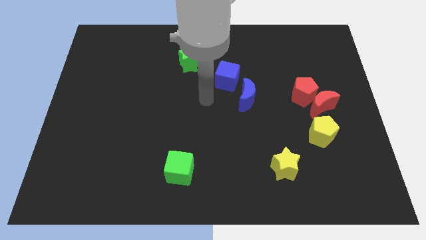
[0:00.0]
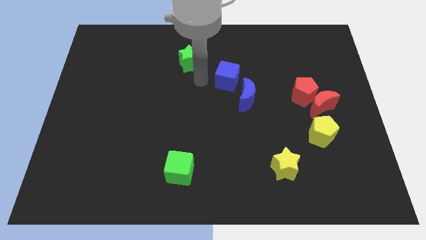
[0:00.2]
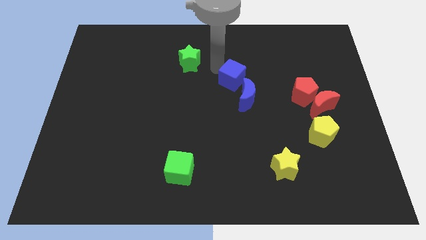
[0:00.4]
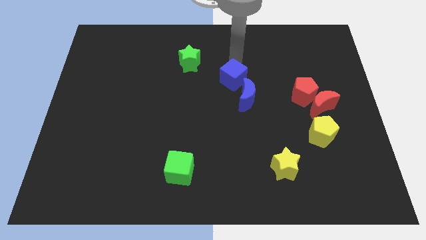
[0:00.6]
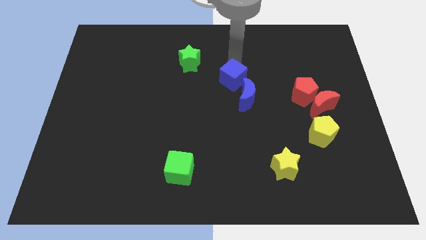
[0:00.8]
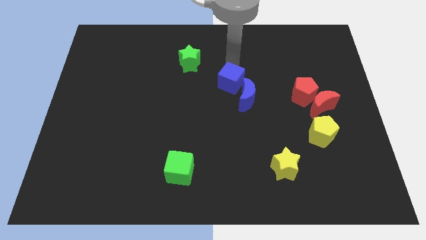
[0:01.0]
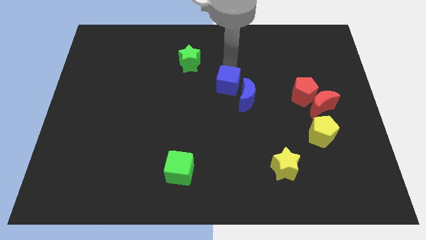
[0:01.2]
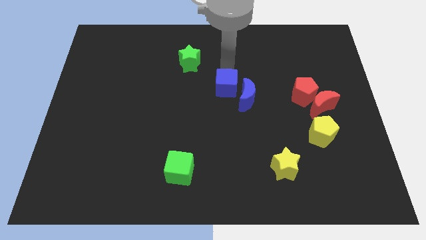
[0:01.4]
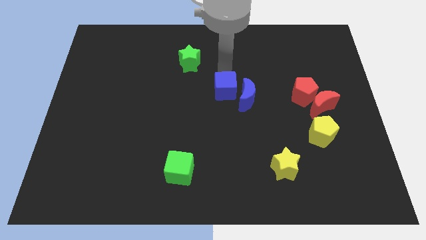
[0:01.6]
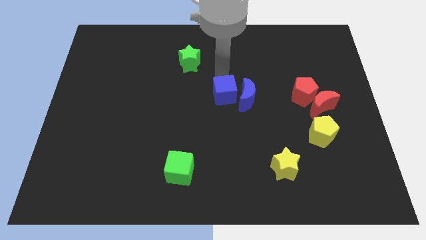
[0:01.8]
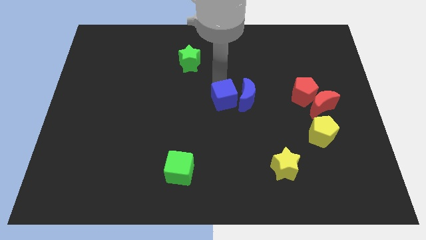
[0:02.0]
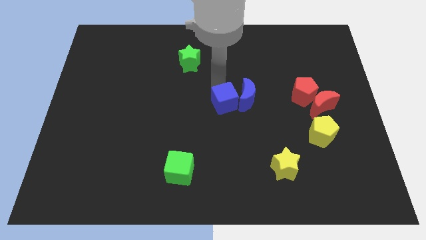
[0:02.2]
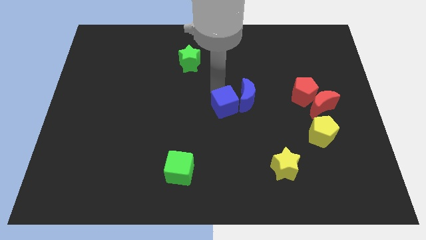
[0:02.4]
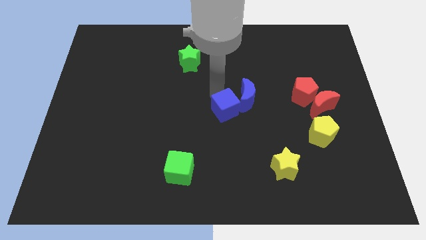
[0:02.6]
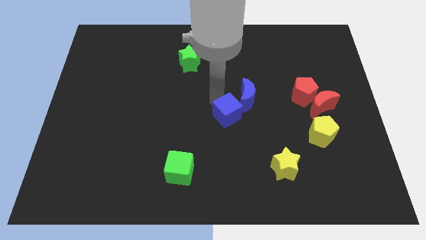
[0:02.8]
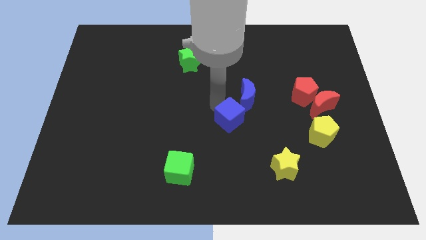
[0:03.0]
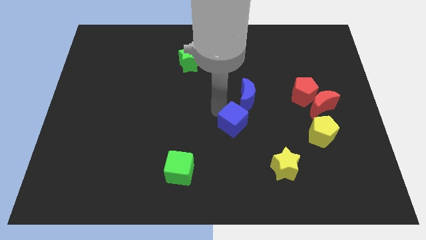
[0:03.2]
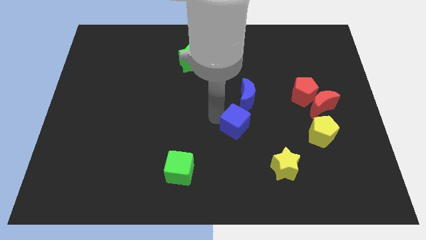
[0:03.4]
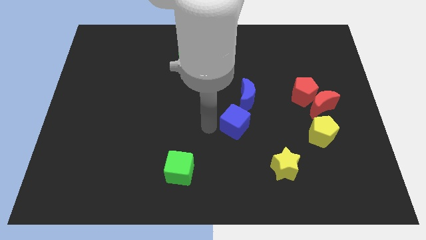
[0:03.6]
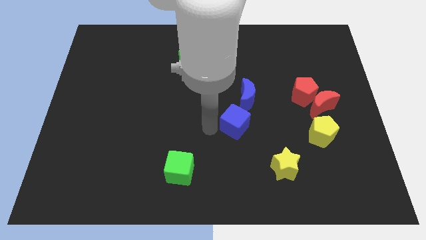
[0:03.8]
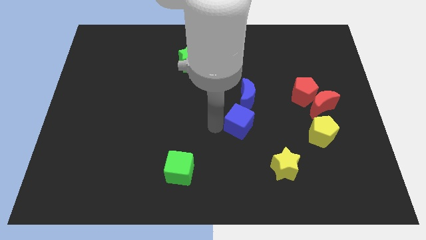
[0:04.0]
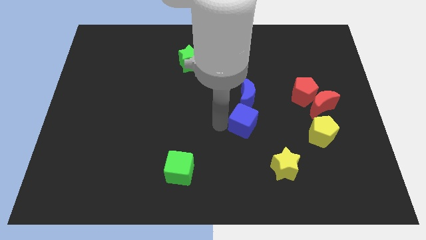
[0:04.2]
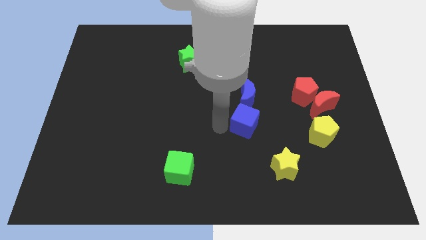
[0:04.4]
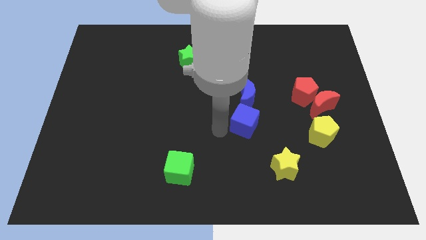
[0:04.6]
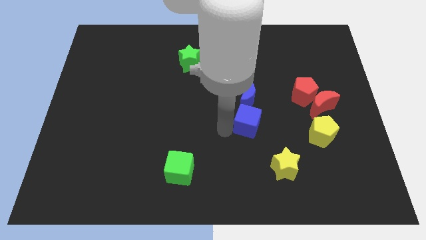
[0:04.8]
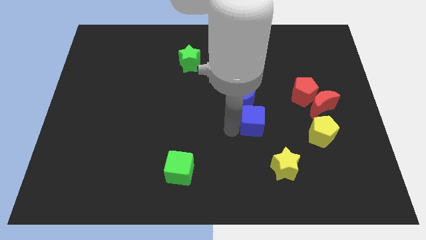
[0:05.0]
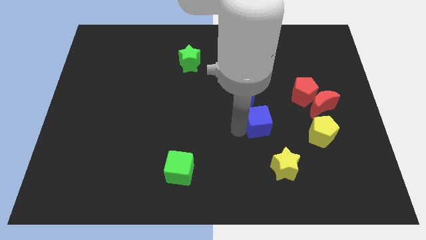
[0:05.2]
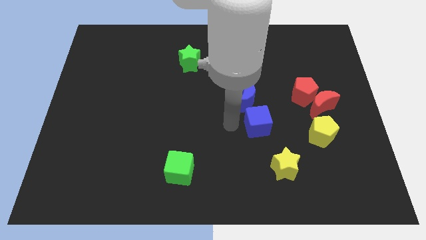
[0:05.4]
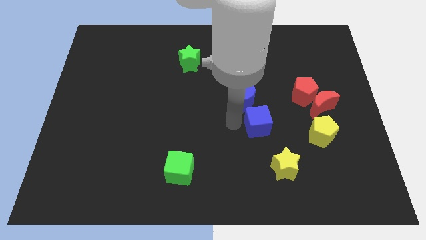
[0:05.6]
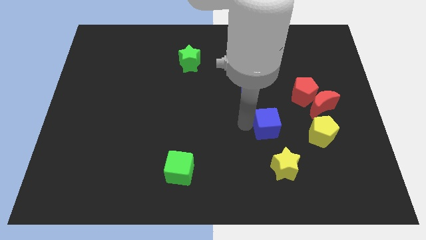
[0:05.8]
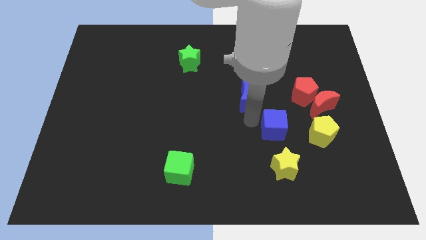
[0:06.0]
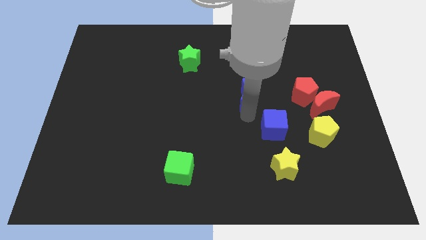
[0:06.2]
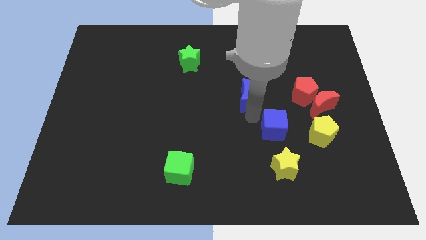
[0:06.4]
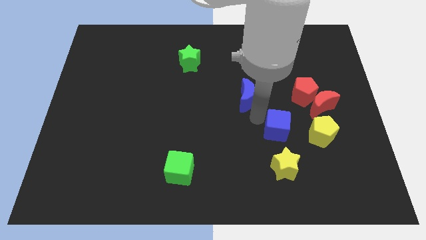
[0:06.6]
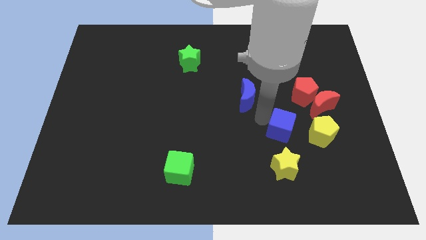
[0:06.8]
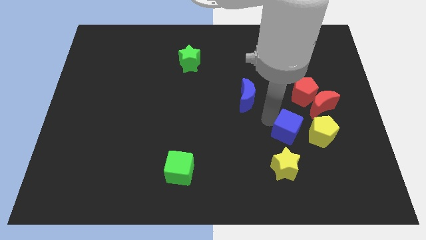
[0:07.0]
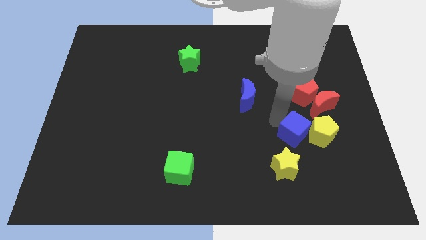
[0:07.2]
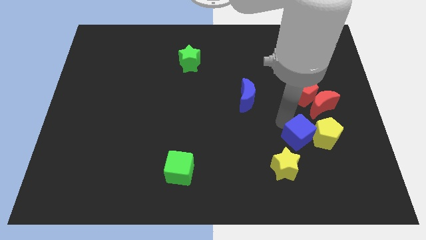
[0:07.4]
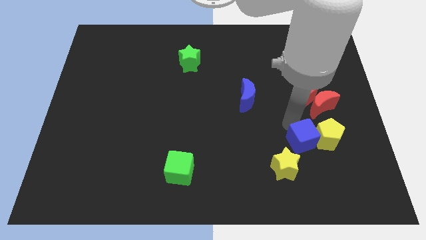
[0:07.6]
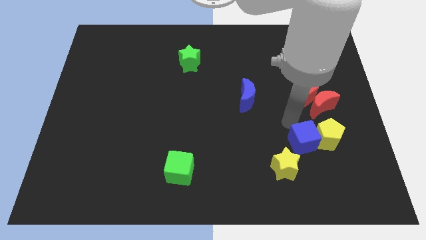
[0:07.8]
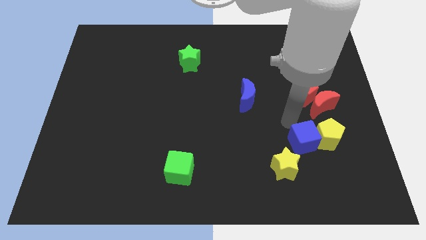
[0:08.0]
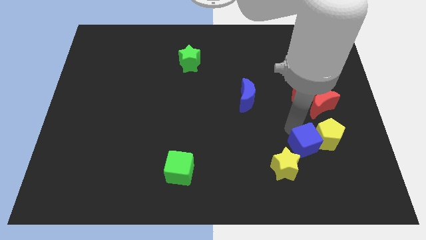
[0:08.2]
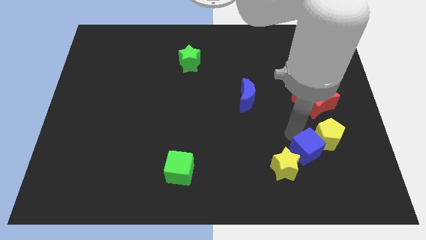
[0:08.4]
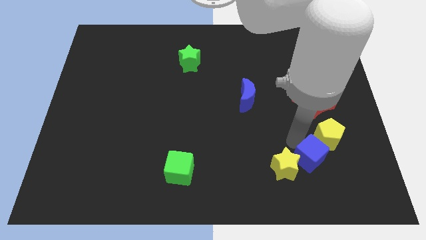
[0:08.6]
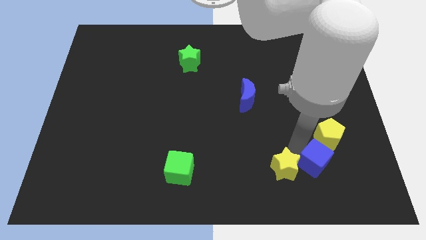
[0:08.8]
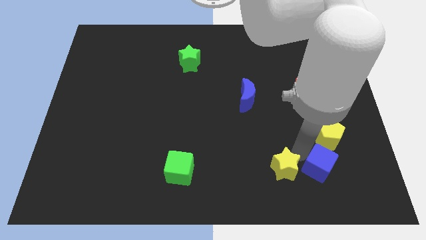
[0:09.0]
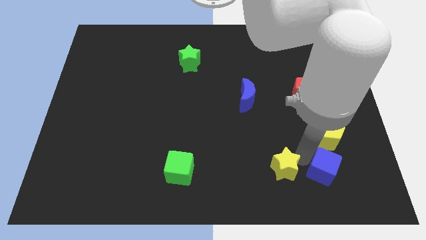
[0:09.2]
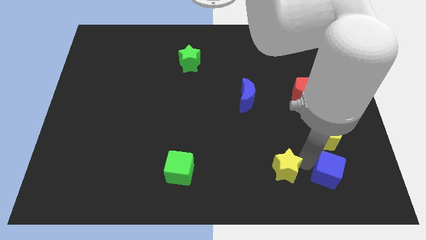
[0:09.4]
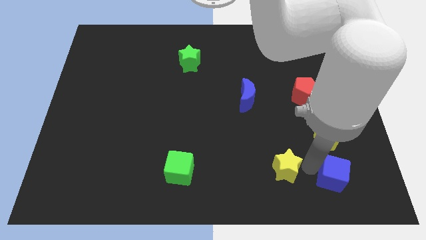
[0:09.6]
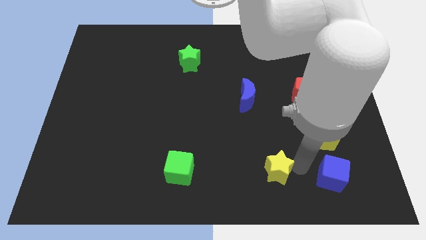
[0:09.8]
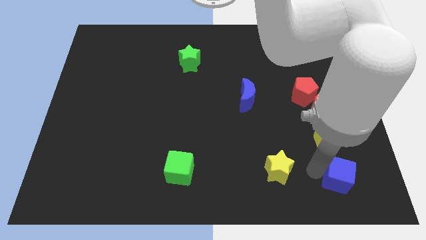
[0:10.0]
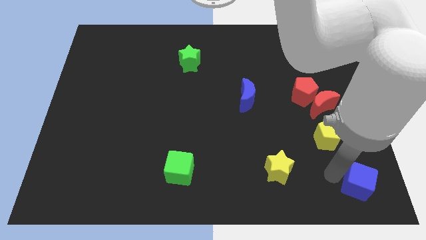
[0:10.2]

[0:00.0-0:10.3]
move the blue cube to the bottom right

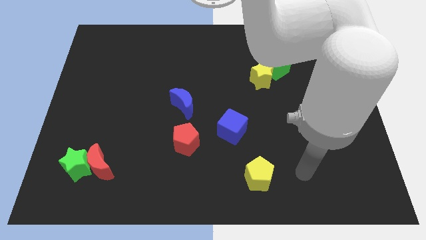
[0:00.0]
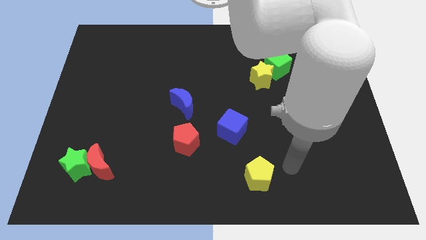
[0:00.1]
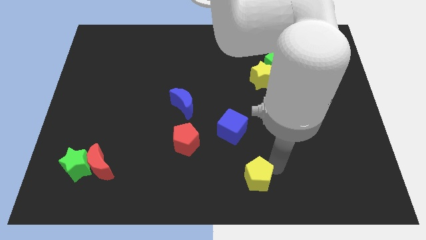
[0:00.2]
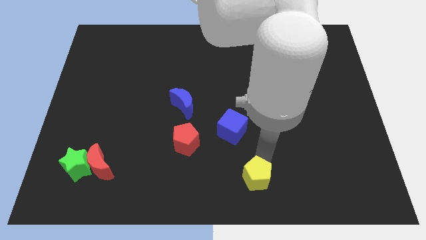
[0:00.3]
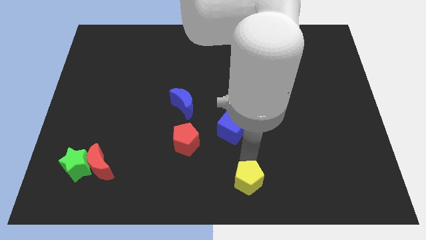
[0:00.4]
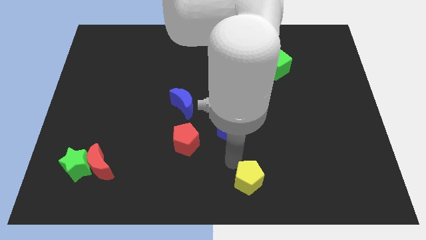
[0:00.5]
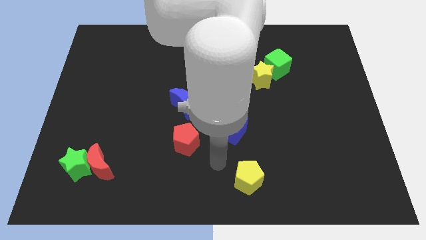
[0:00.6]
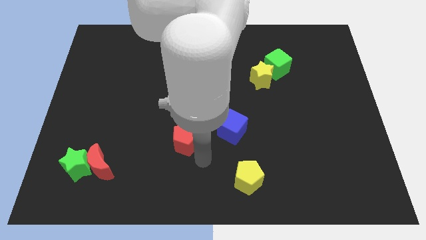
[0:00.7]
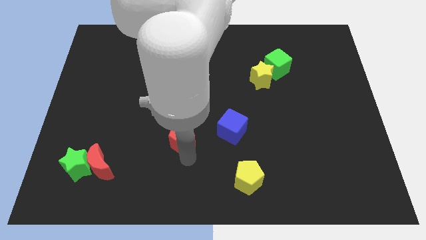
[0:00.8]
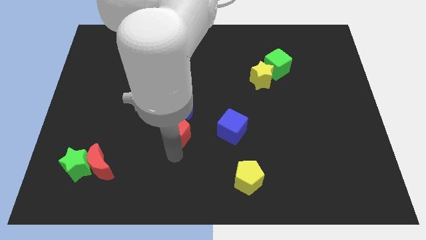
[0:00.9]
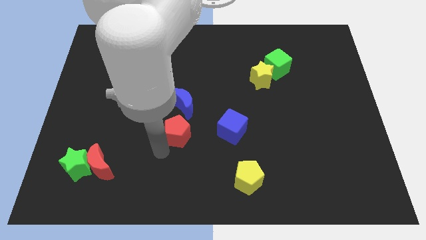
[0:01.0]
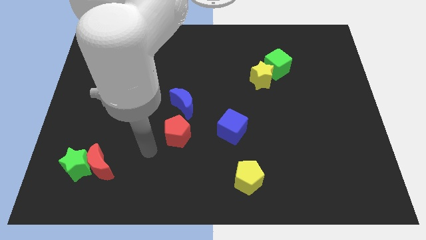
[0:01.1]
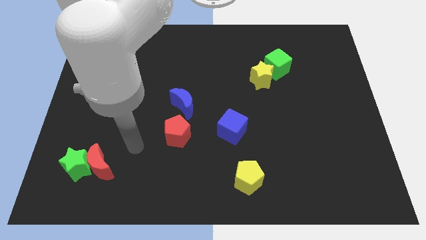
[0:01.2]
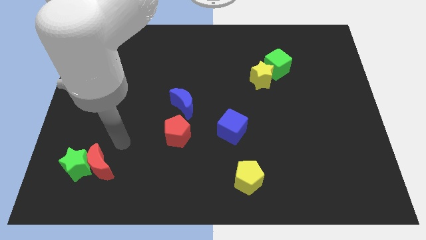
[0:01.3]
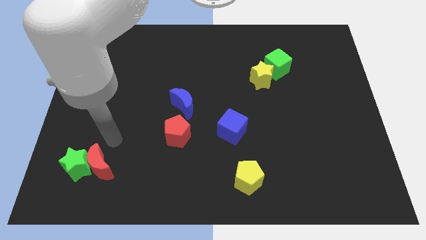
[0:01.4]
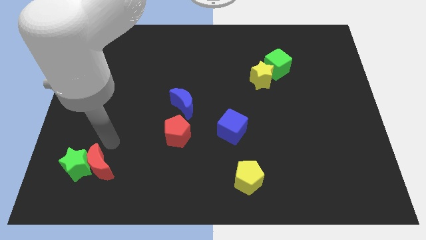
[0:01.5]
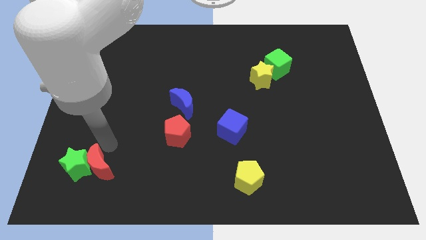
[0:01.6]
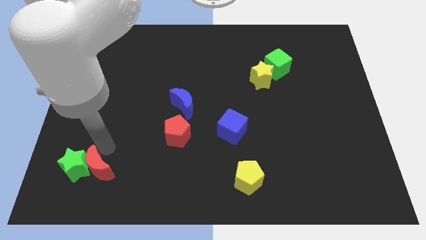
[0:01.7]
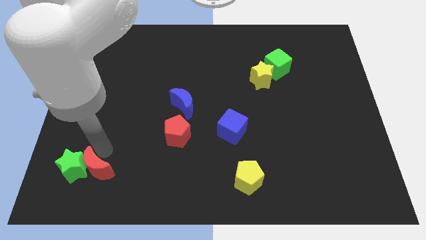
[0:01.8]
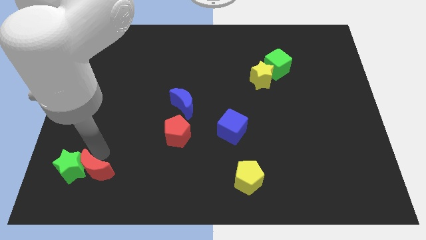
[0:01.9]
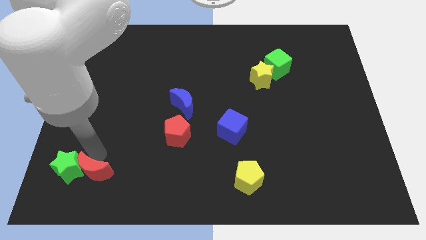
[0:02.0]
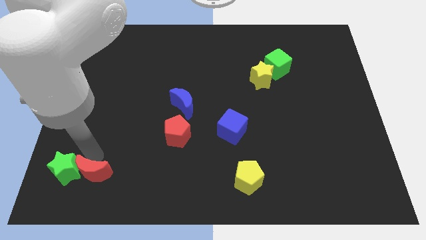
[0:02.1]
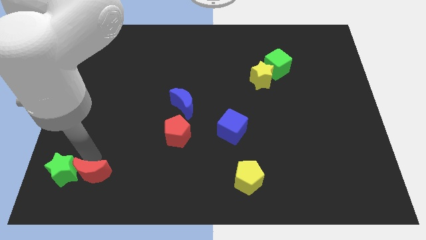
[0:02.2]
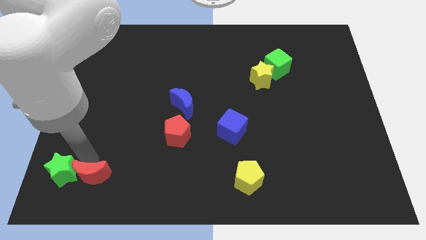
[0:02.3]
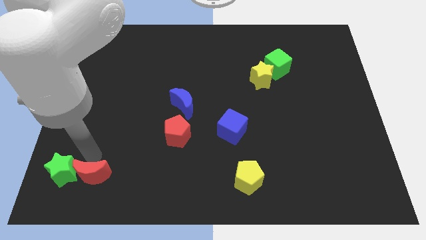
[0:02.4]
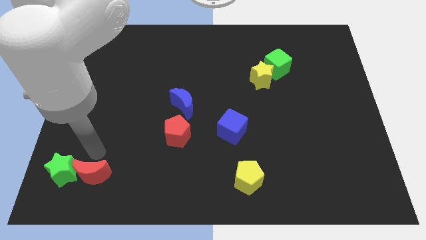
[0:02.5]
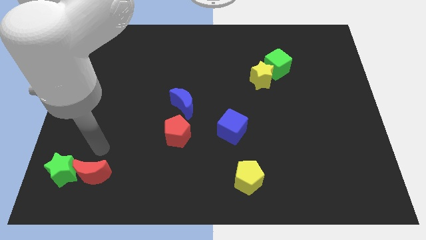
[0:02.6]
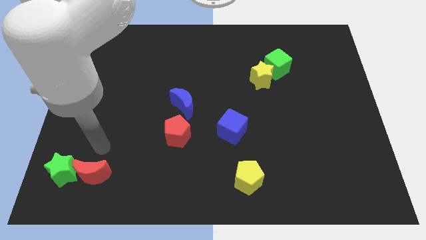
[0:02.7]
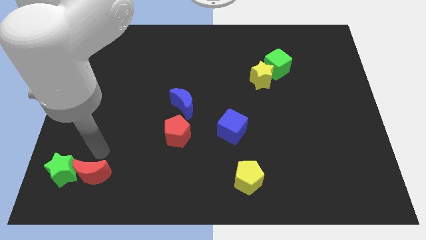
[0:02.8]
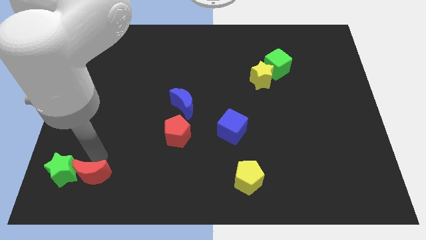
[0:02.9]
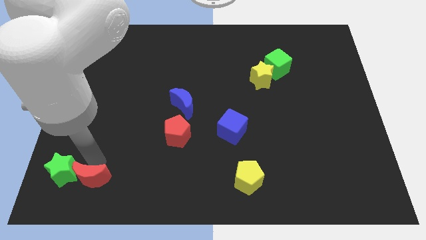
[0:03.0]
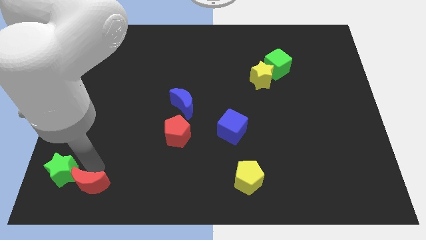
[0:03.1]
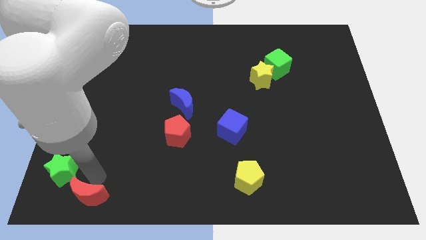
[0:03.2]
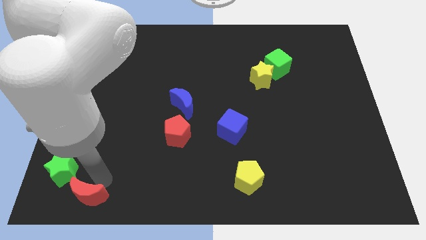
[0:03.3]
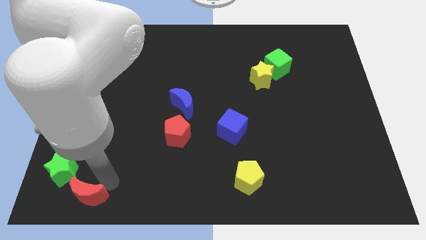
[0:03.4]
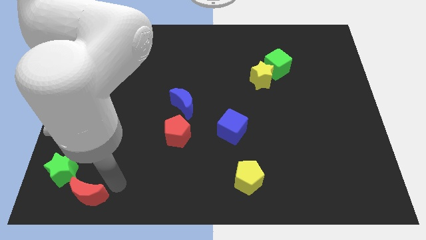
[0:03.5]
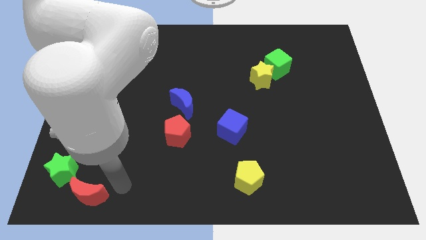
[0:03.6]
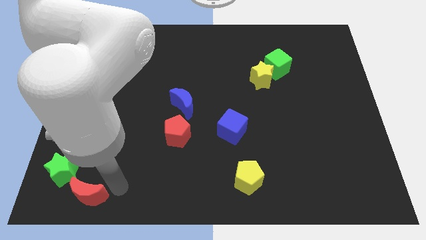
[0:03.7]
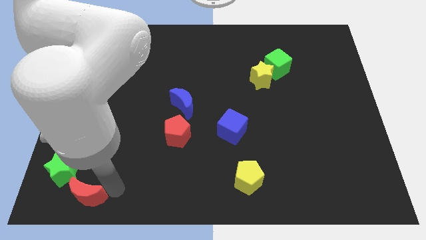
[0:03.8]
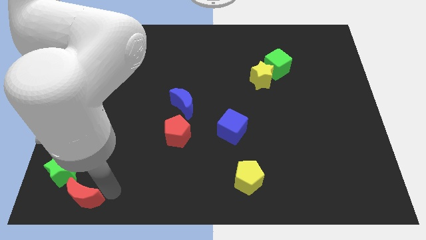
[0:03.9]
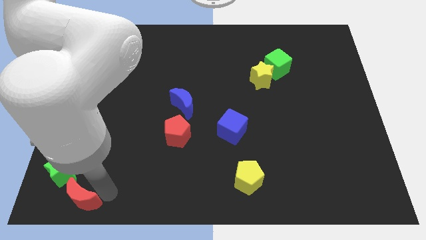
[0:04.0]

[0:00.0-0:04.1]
push the red moon to the bottom left
